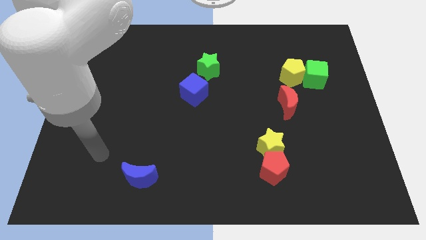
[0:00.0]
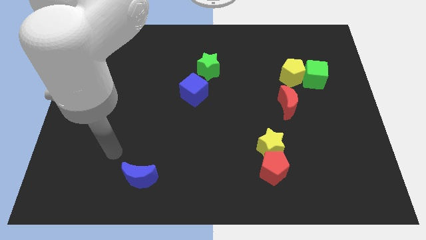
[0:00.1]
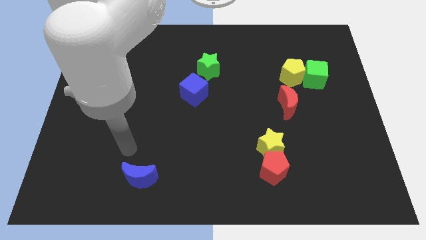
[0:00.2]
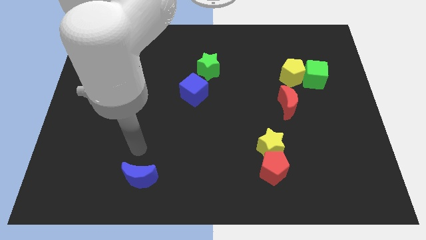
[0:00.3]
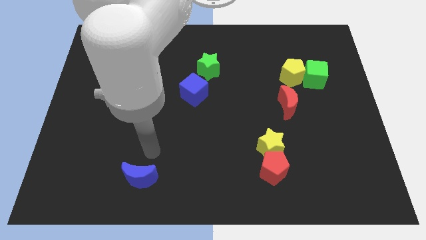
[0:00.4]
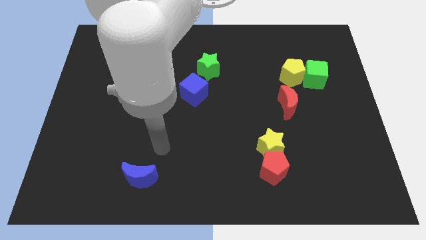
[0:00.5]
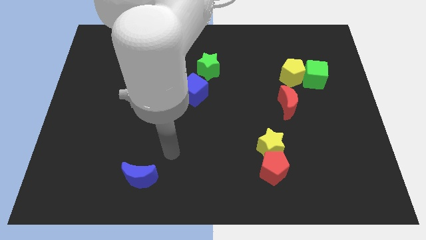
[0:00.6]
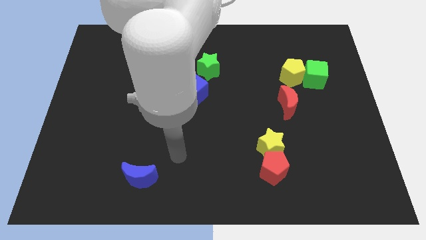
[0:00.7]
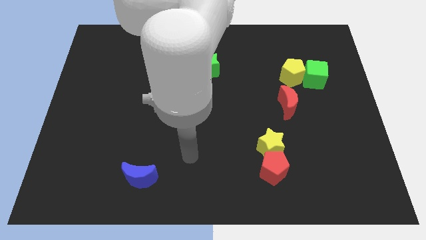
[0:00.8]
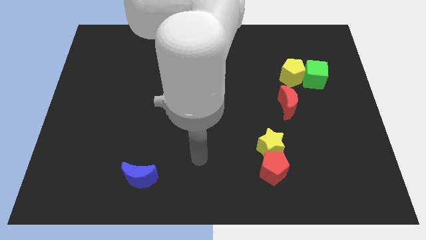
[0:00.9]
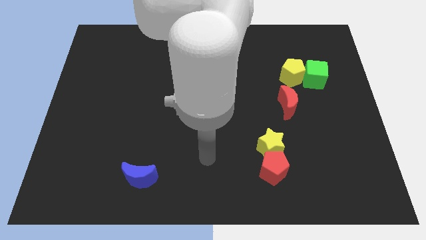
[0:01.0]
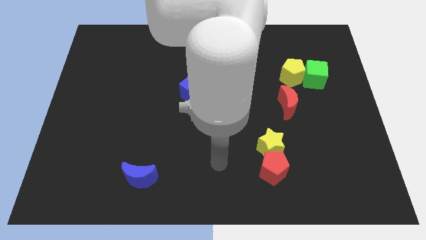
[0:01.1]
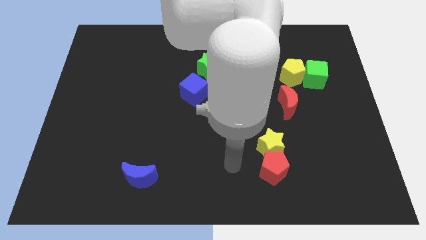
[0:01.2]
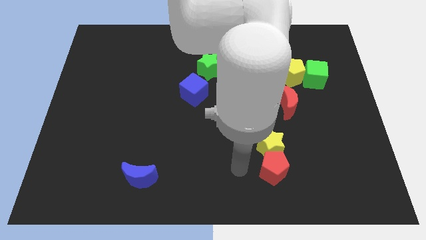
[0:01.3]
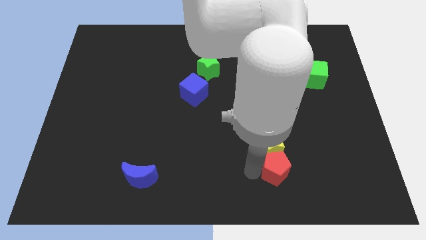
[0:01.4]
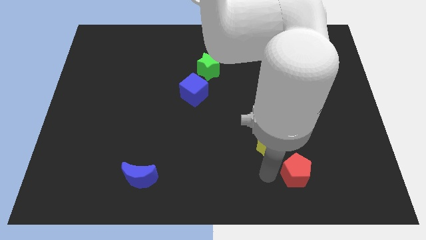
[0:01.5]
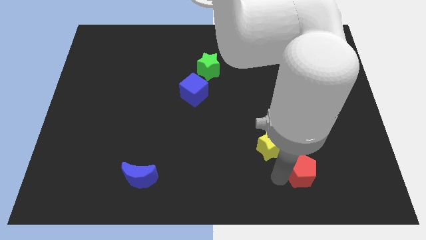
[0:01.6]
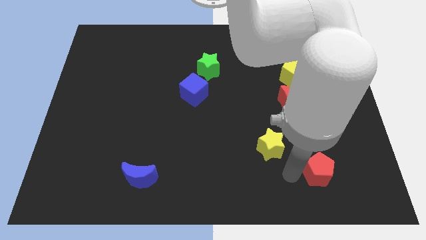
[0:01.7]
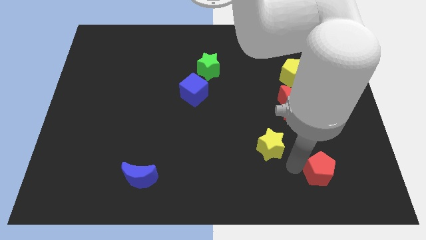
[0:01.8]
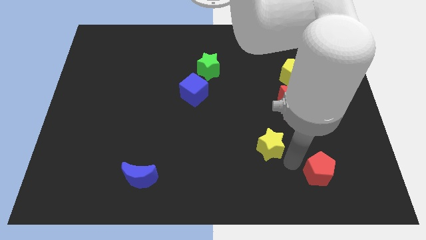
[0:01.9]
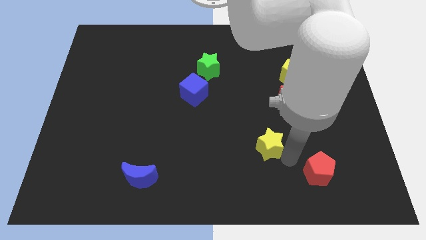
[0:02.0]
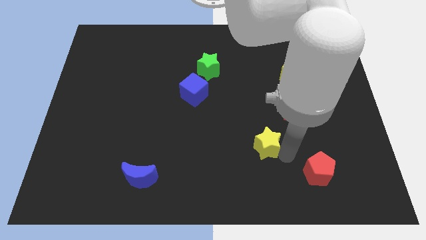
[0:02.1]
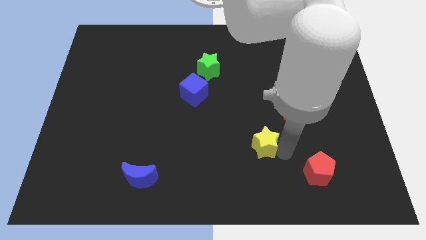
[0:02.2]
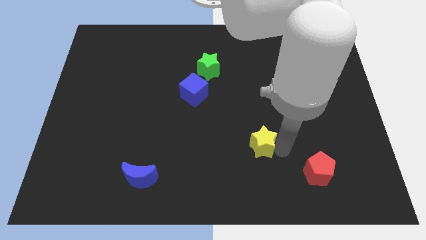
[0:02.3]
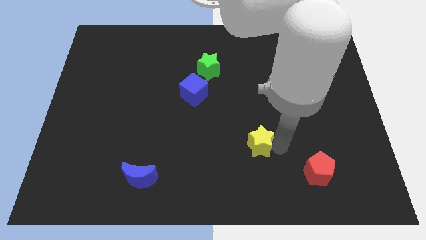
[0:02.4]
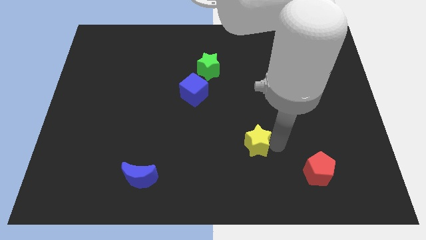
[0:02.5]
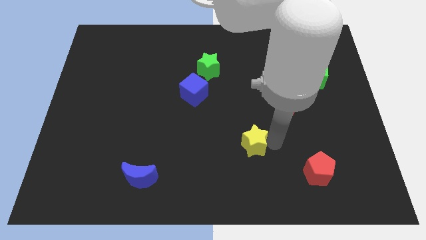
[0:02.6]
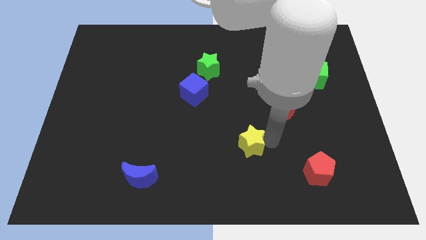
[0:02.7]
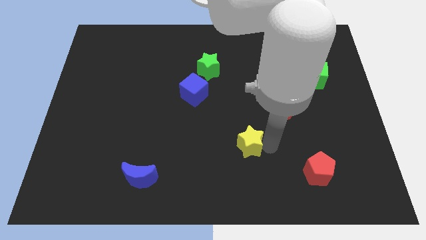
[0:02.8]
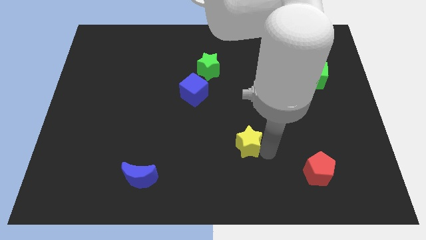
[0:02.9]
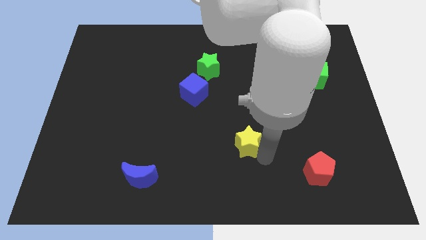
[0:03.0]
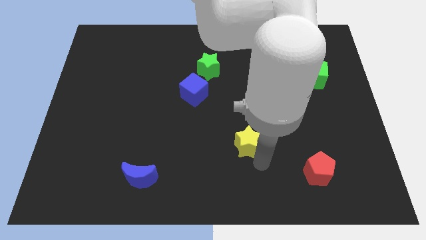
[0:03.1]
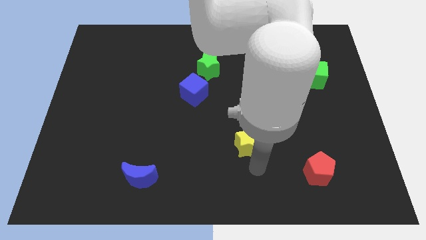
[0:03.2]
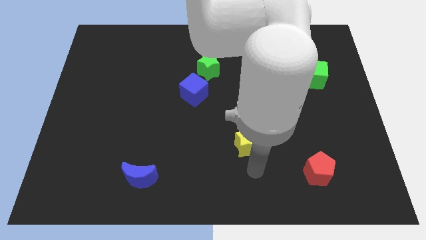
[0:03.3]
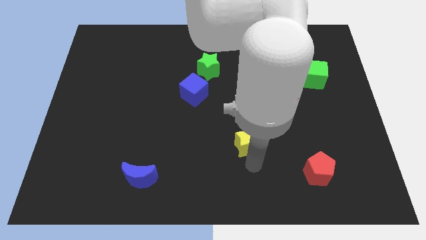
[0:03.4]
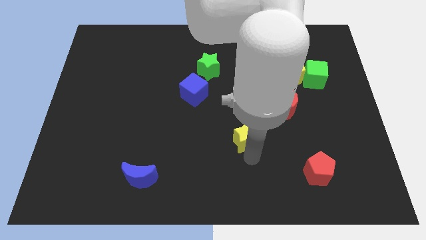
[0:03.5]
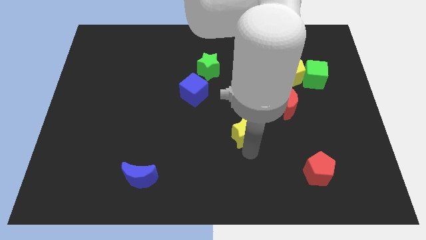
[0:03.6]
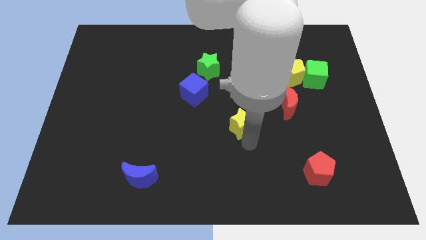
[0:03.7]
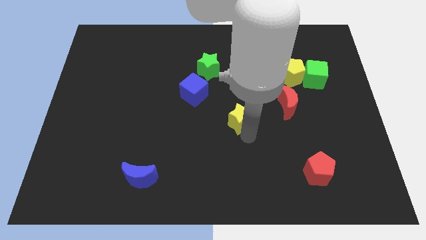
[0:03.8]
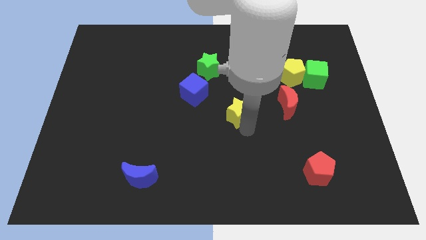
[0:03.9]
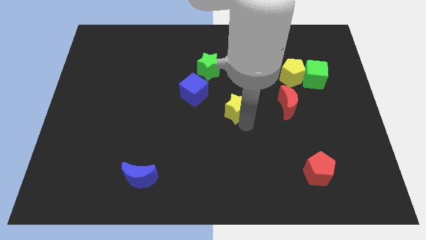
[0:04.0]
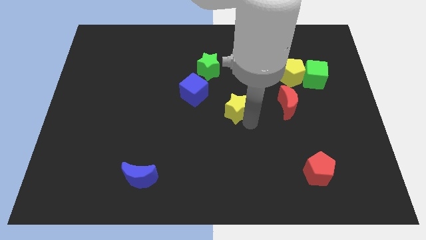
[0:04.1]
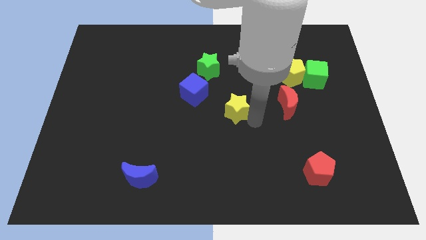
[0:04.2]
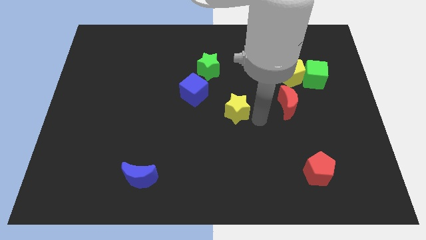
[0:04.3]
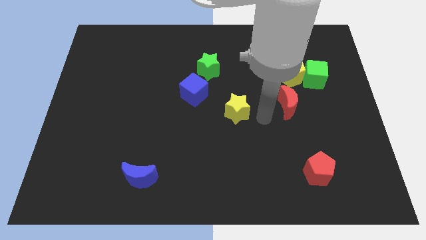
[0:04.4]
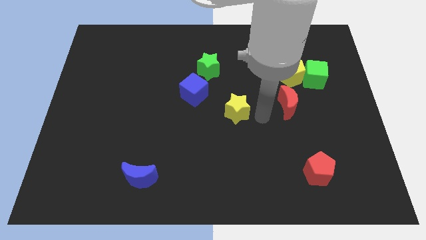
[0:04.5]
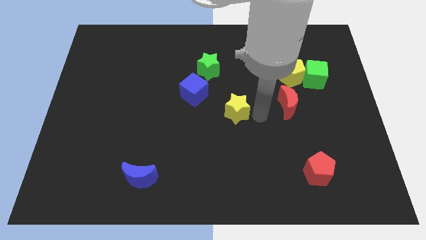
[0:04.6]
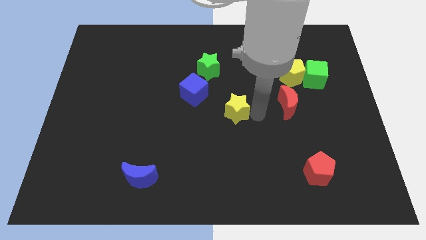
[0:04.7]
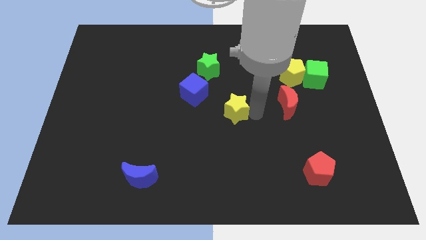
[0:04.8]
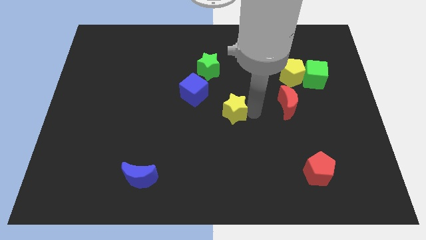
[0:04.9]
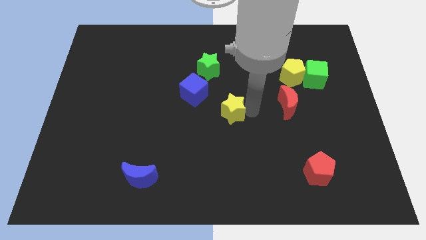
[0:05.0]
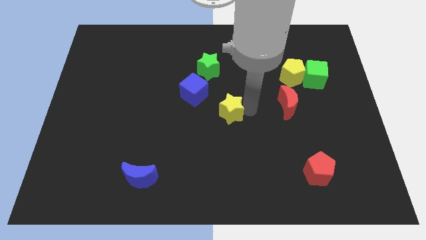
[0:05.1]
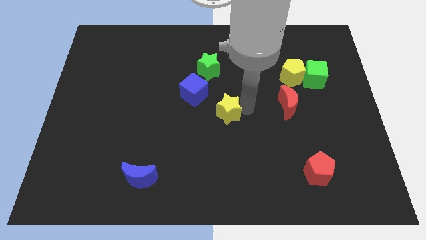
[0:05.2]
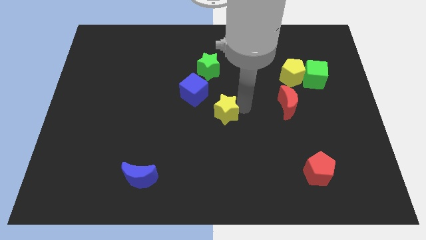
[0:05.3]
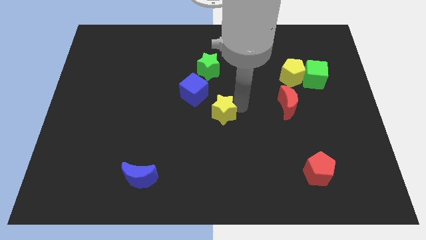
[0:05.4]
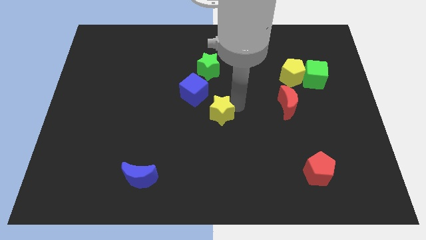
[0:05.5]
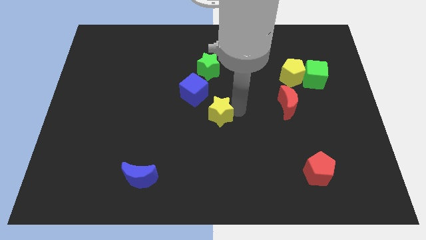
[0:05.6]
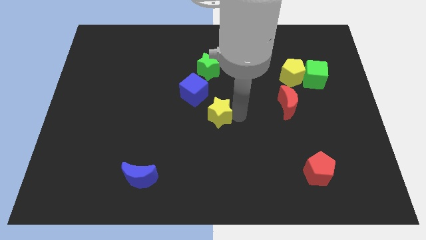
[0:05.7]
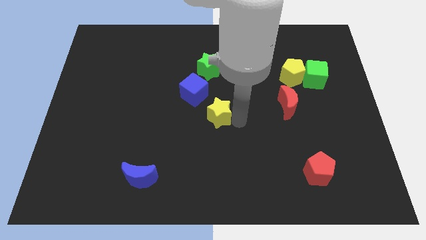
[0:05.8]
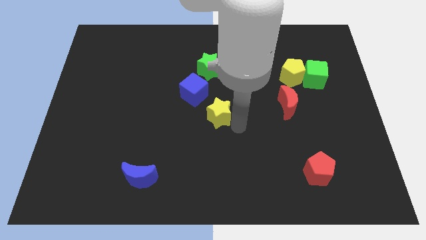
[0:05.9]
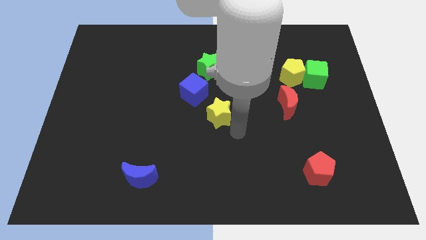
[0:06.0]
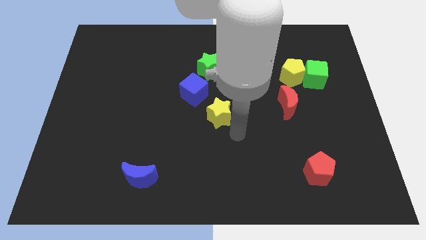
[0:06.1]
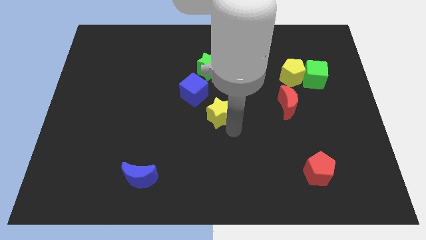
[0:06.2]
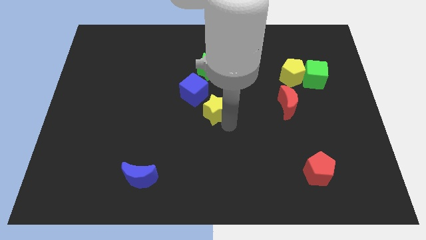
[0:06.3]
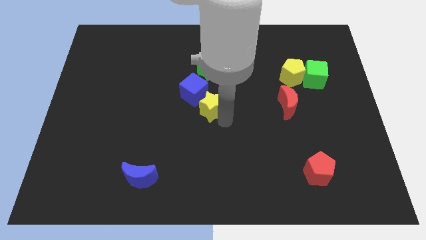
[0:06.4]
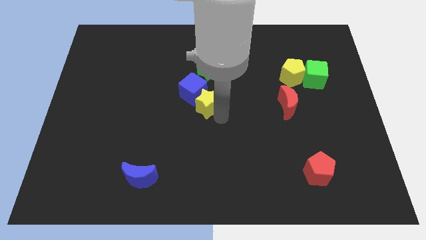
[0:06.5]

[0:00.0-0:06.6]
slide the yellow star towards the blue cube

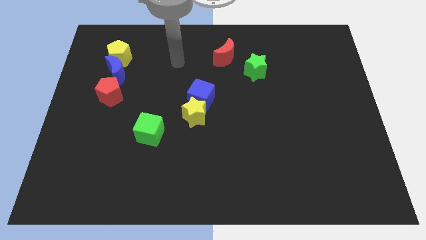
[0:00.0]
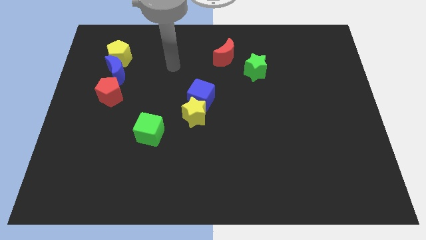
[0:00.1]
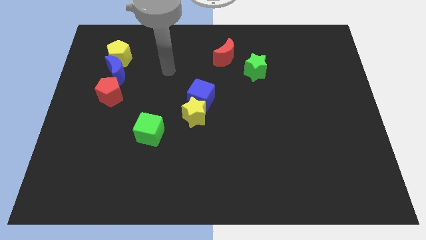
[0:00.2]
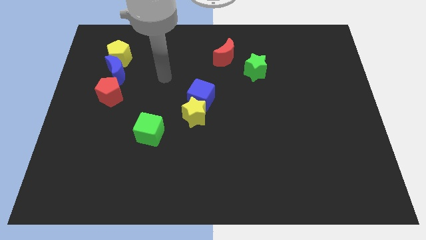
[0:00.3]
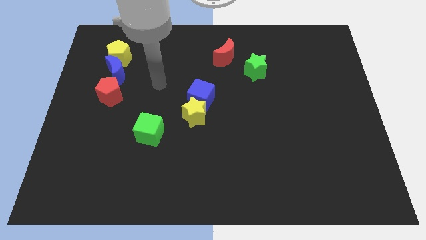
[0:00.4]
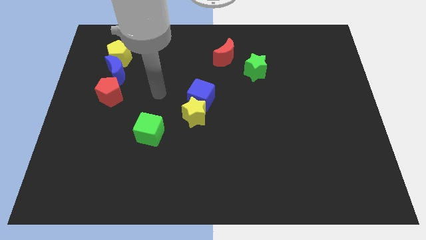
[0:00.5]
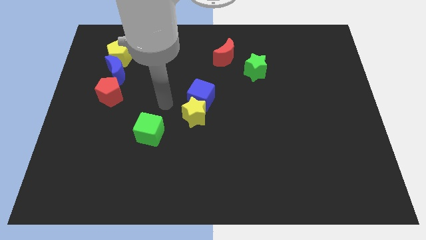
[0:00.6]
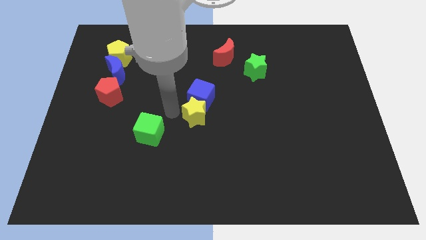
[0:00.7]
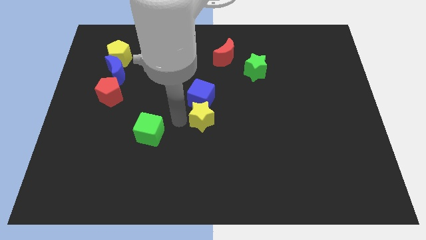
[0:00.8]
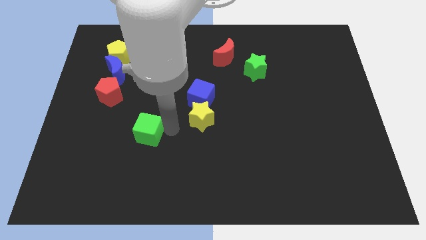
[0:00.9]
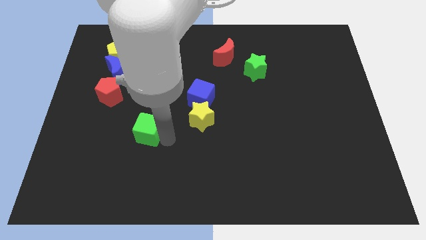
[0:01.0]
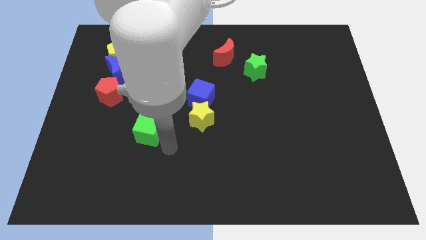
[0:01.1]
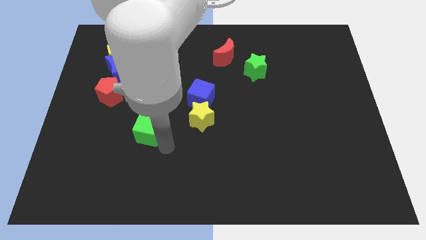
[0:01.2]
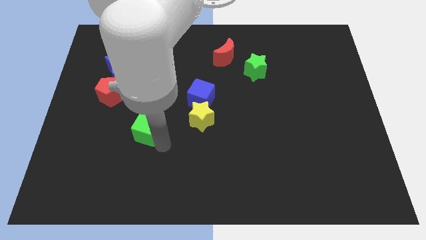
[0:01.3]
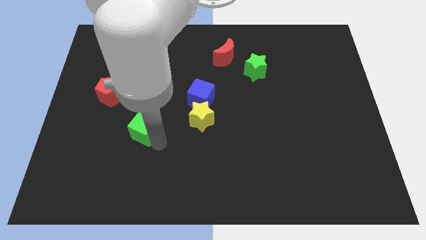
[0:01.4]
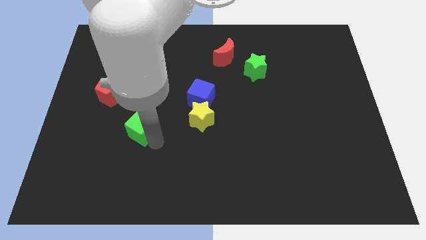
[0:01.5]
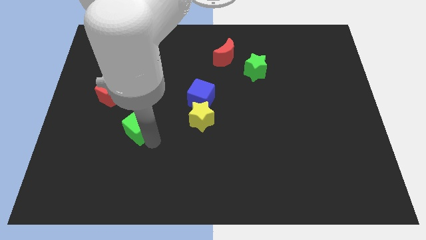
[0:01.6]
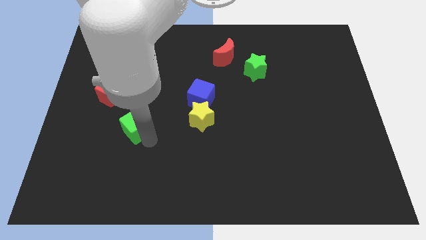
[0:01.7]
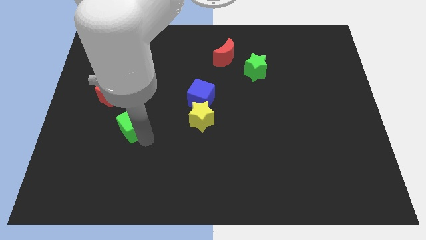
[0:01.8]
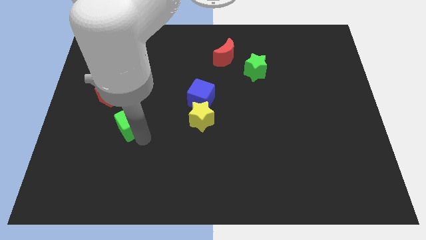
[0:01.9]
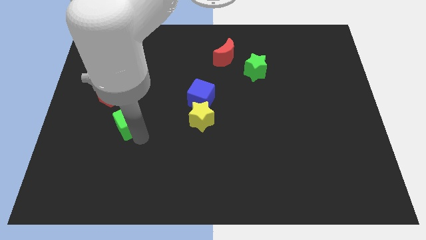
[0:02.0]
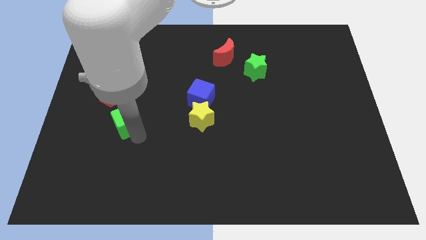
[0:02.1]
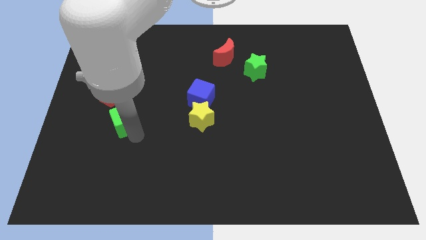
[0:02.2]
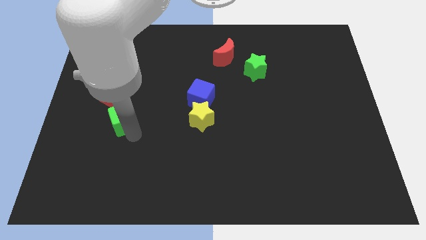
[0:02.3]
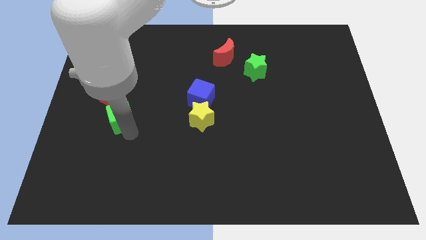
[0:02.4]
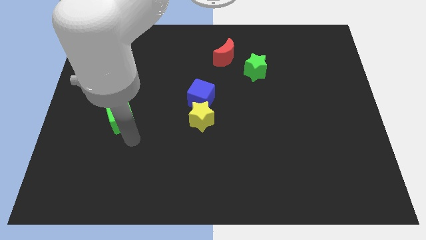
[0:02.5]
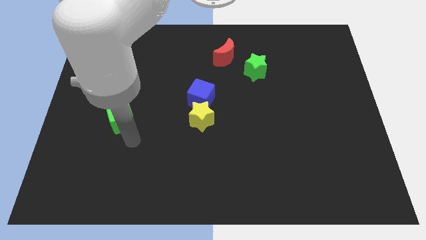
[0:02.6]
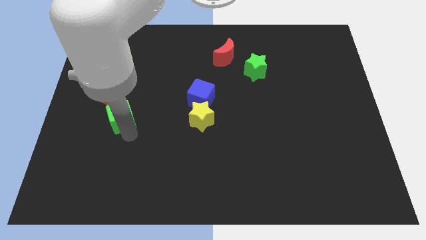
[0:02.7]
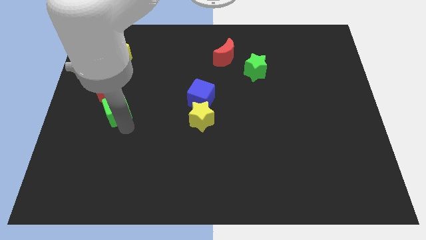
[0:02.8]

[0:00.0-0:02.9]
slide the green cube to the red pentagon
